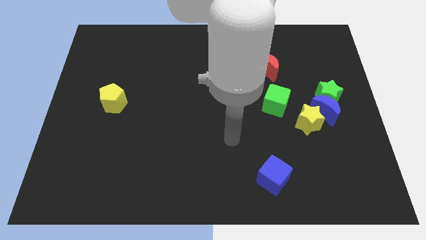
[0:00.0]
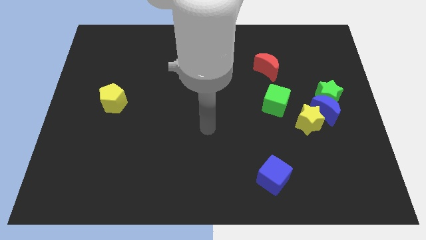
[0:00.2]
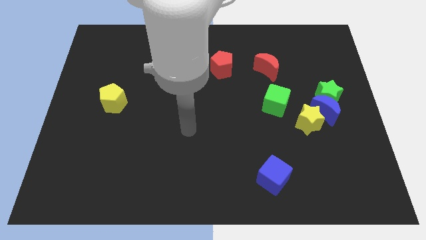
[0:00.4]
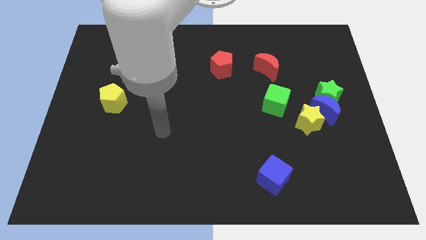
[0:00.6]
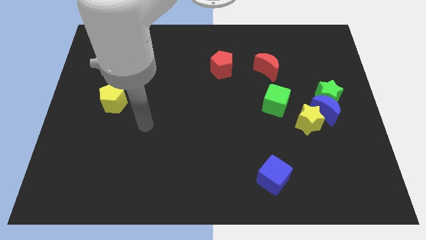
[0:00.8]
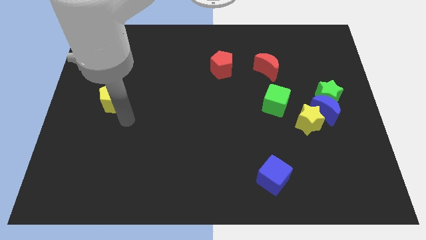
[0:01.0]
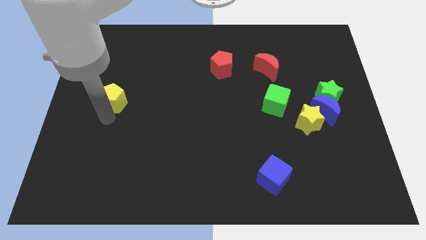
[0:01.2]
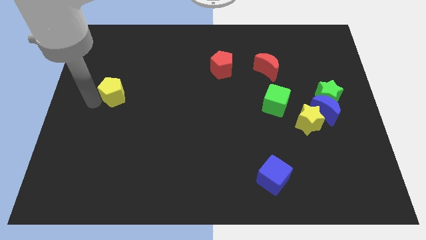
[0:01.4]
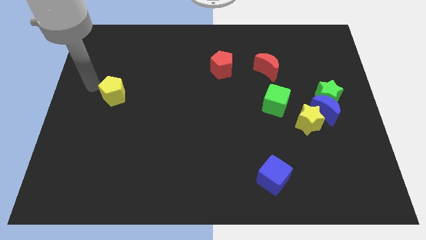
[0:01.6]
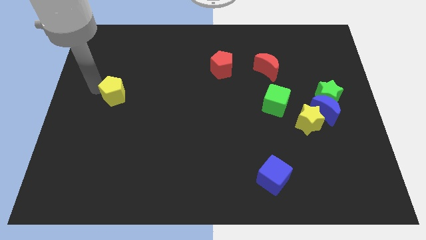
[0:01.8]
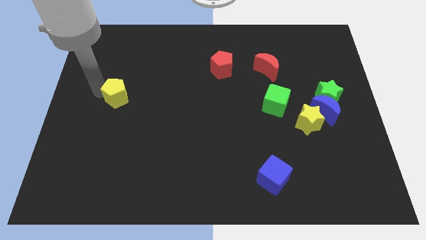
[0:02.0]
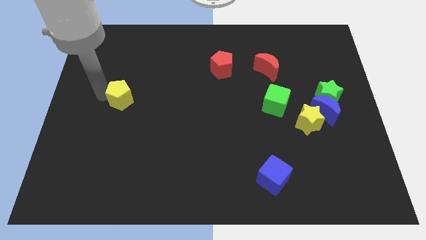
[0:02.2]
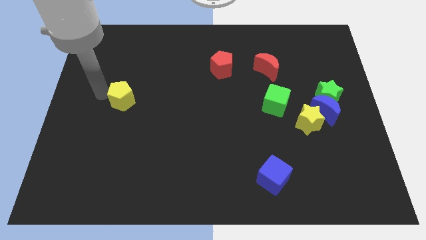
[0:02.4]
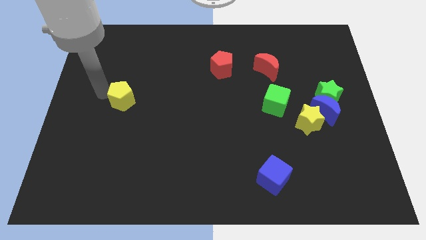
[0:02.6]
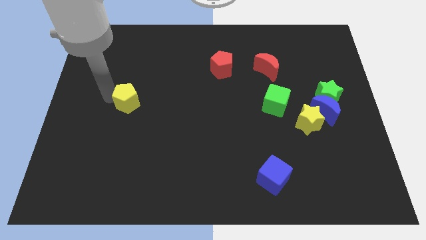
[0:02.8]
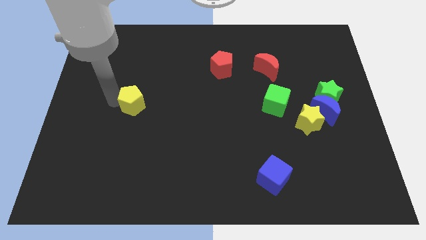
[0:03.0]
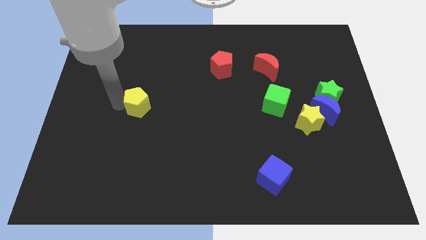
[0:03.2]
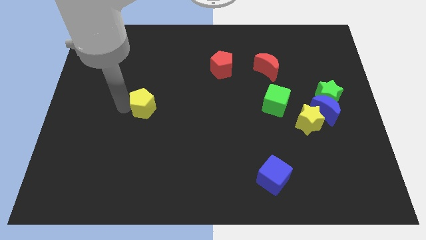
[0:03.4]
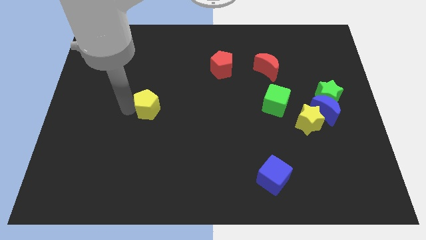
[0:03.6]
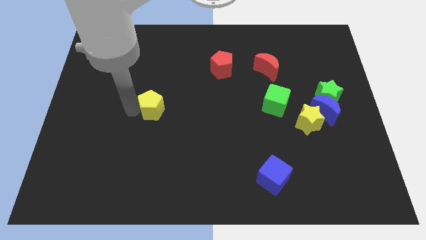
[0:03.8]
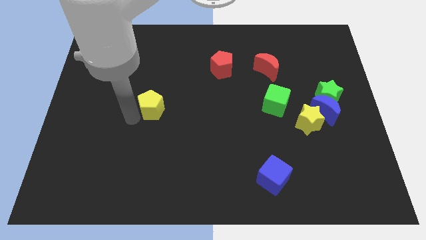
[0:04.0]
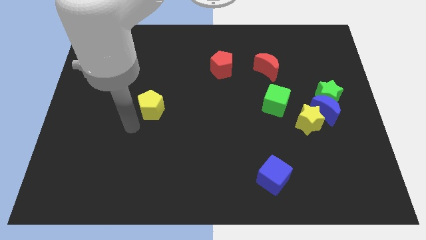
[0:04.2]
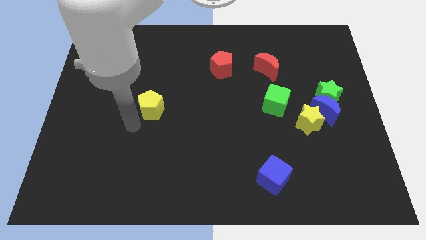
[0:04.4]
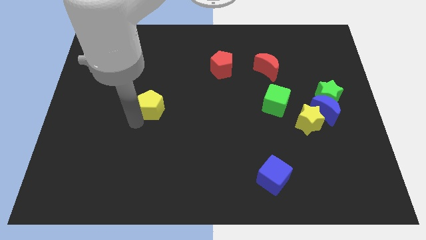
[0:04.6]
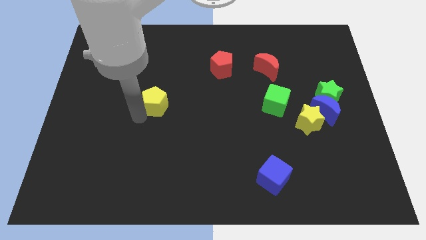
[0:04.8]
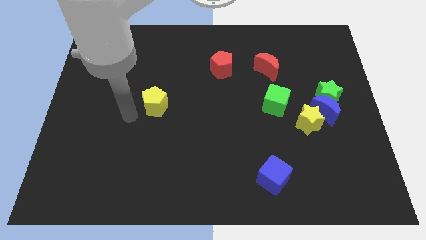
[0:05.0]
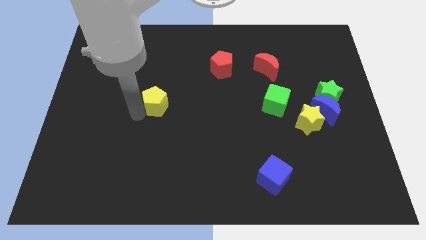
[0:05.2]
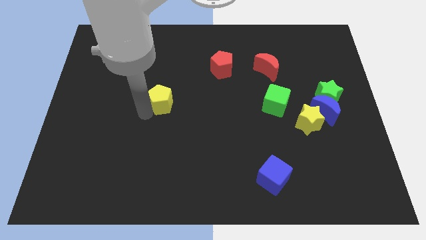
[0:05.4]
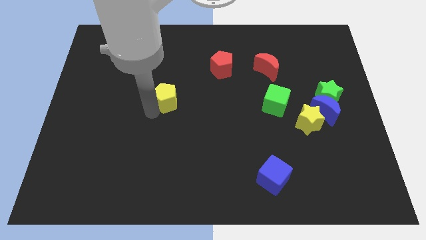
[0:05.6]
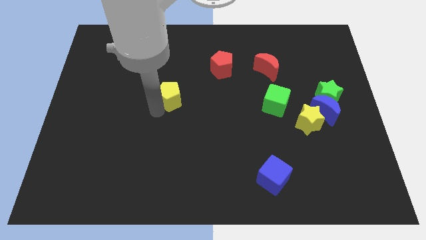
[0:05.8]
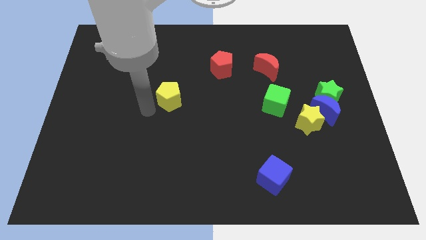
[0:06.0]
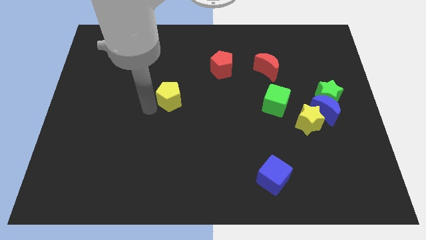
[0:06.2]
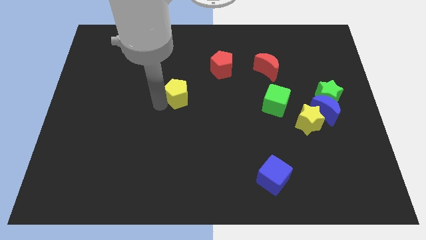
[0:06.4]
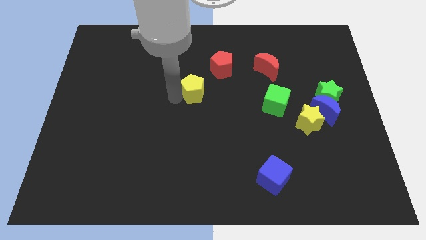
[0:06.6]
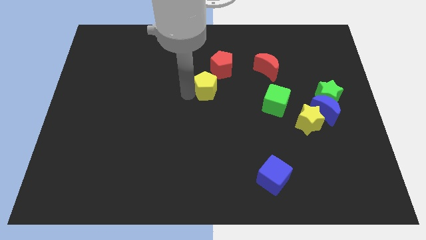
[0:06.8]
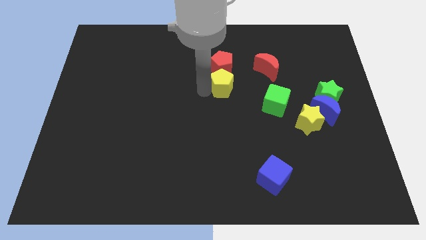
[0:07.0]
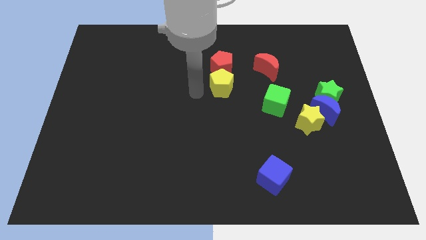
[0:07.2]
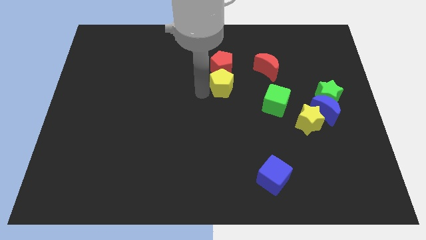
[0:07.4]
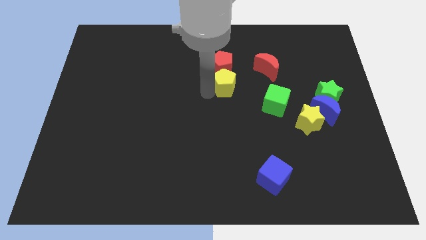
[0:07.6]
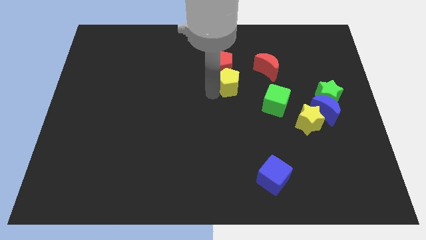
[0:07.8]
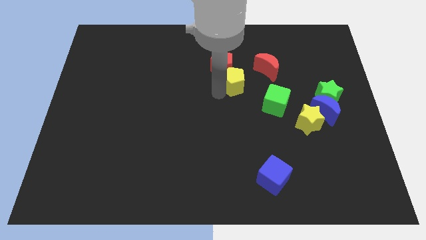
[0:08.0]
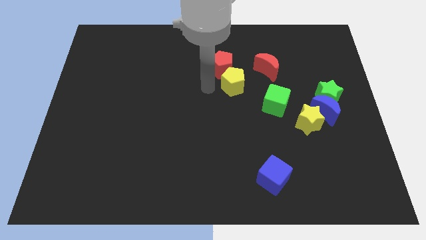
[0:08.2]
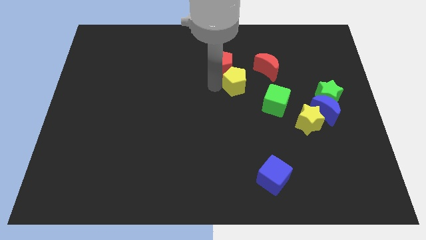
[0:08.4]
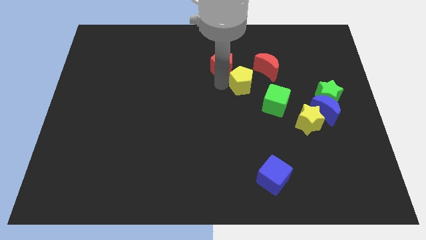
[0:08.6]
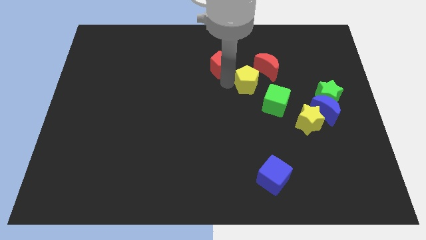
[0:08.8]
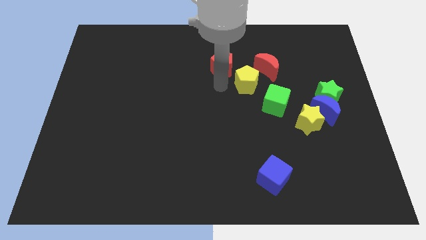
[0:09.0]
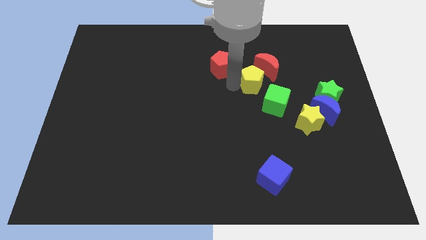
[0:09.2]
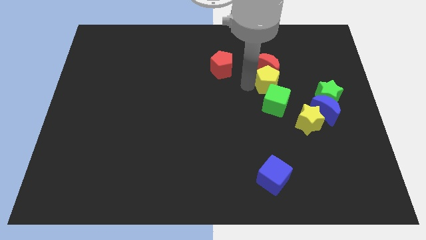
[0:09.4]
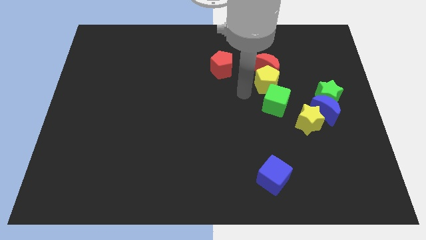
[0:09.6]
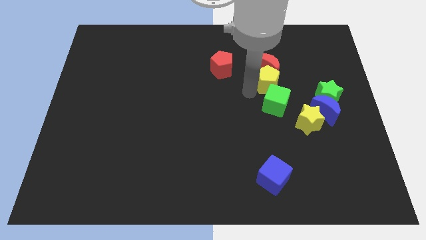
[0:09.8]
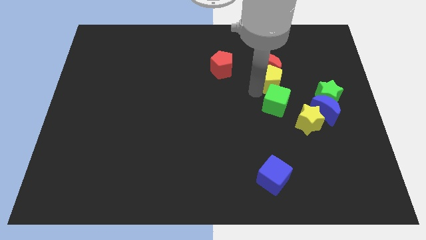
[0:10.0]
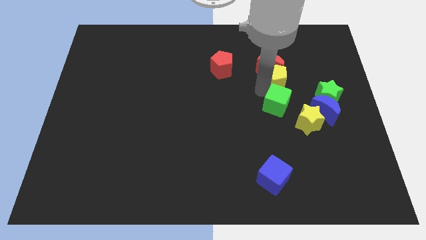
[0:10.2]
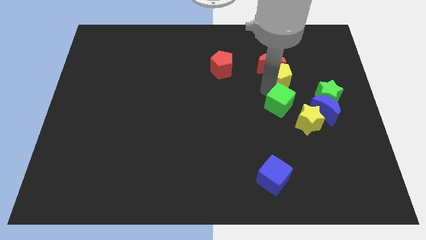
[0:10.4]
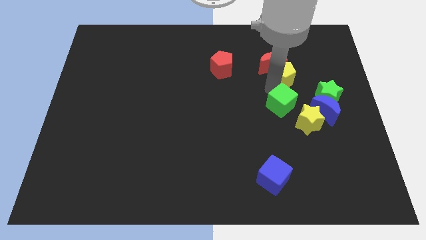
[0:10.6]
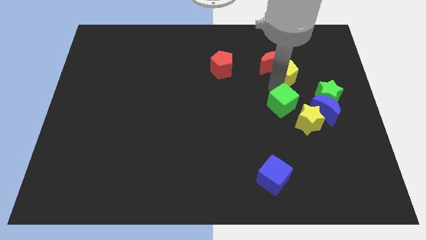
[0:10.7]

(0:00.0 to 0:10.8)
move the yellow pentagon just right of the red moon

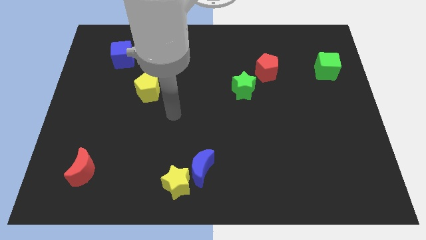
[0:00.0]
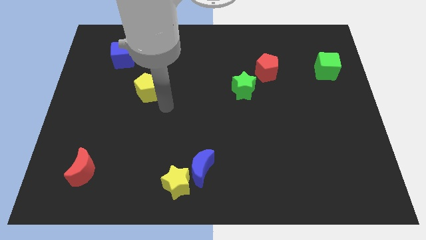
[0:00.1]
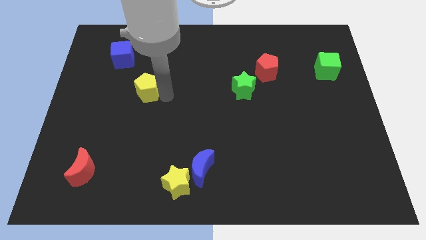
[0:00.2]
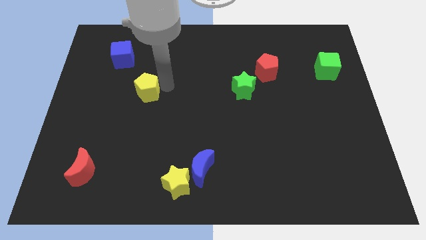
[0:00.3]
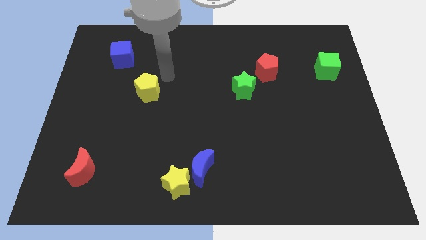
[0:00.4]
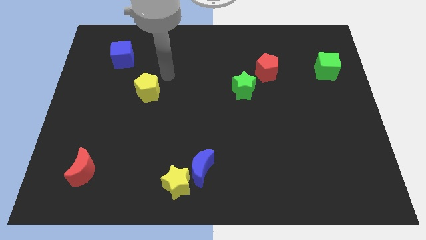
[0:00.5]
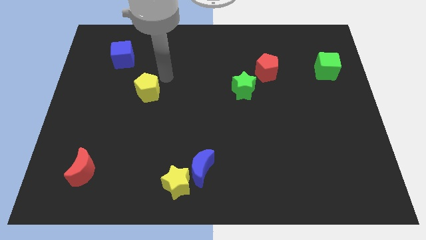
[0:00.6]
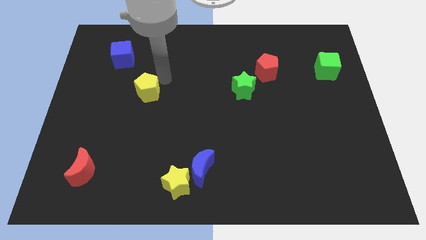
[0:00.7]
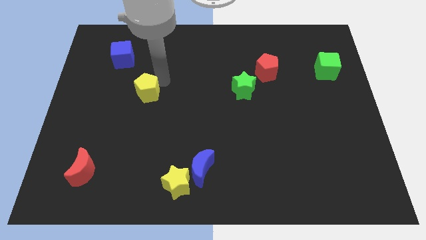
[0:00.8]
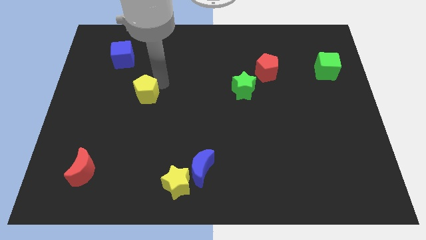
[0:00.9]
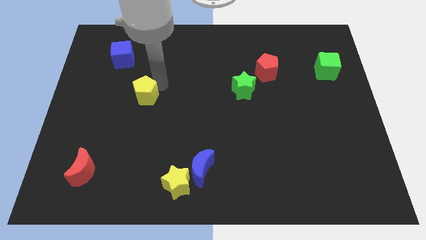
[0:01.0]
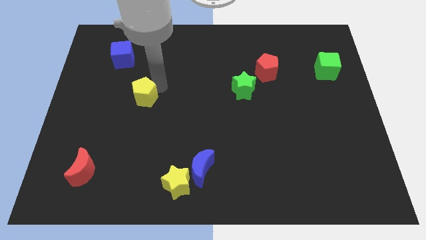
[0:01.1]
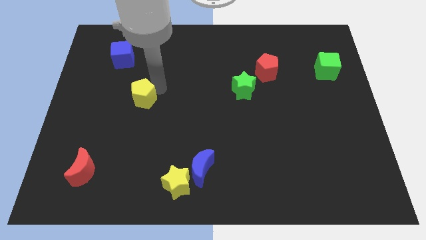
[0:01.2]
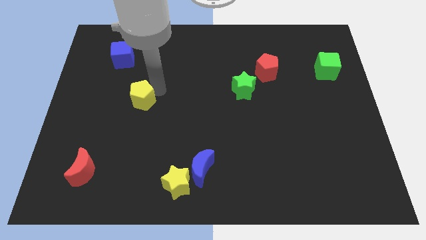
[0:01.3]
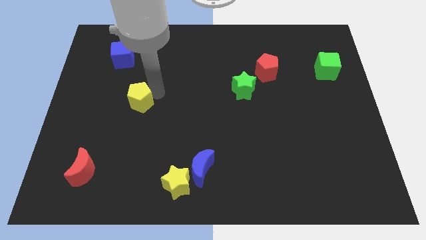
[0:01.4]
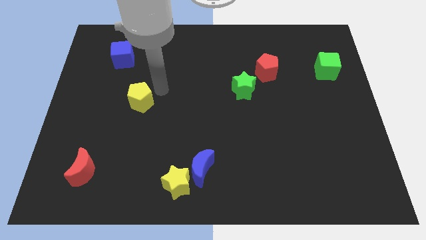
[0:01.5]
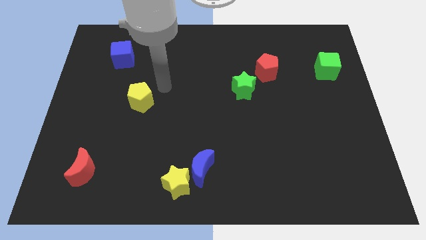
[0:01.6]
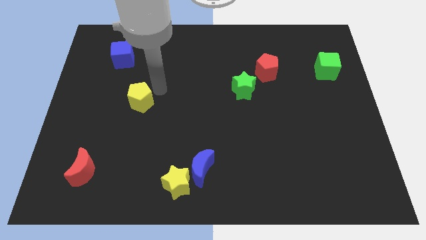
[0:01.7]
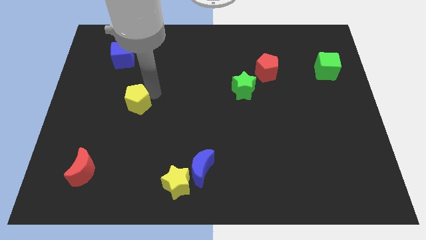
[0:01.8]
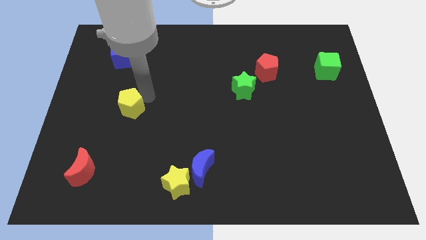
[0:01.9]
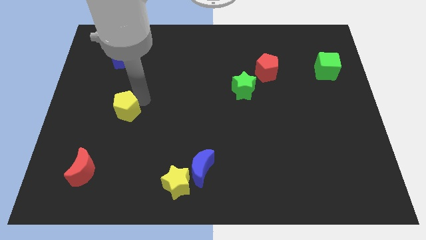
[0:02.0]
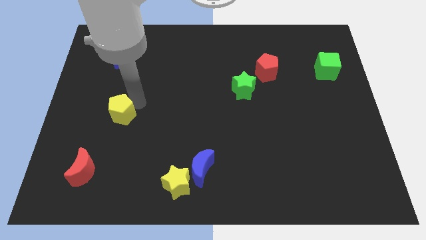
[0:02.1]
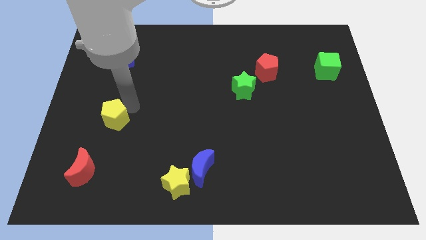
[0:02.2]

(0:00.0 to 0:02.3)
put the yellow pentagon to the top of the red moon
